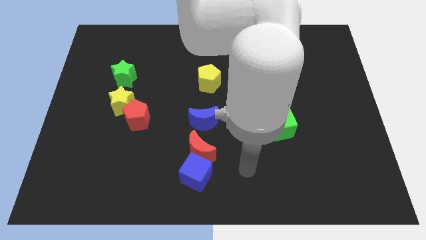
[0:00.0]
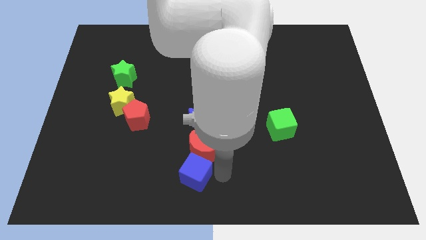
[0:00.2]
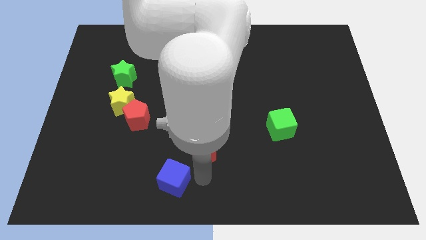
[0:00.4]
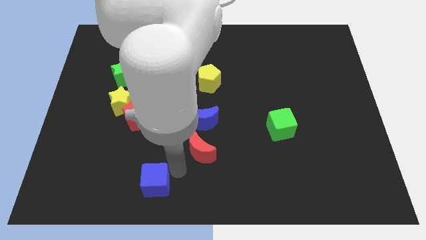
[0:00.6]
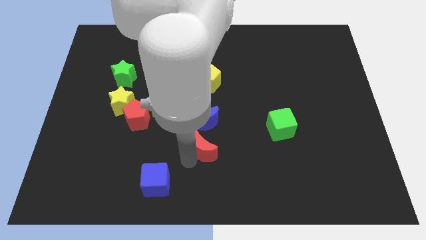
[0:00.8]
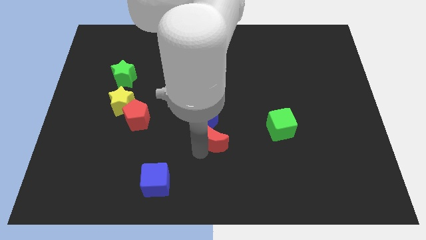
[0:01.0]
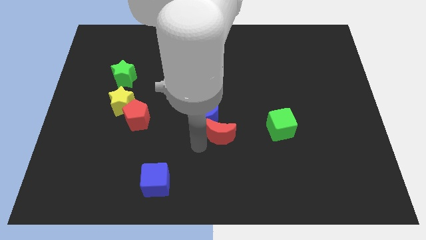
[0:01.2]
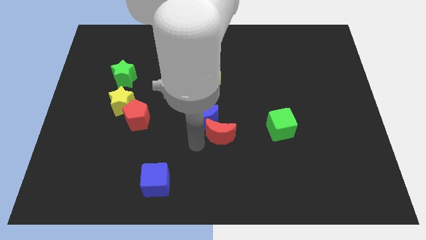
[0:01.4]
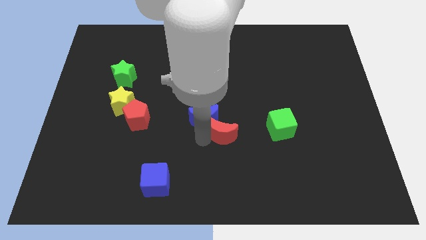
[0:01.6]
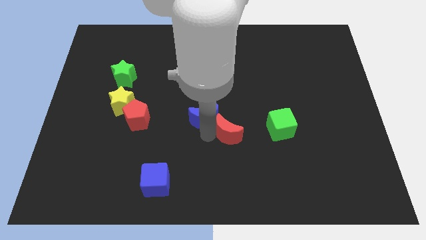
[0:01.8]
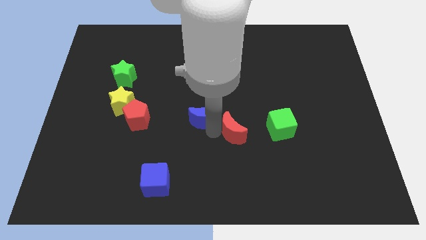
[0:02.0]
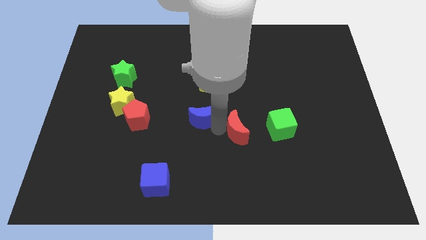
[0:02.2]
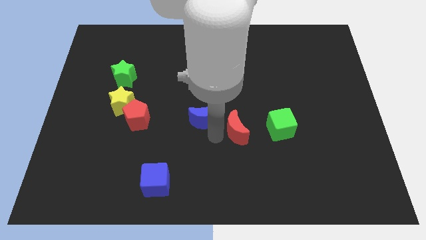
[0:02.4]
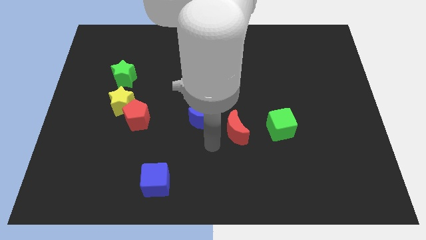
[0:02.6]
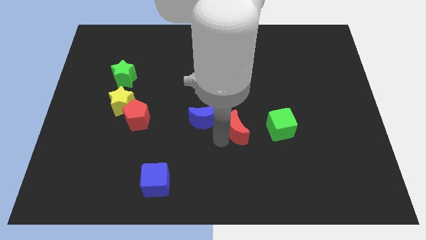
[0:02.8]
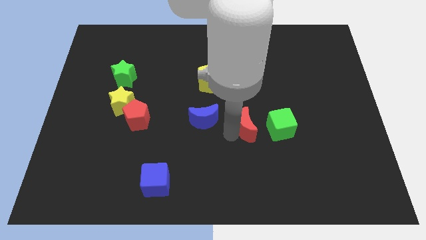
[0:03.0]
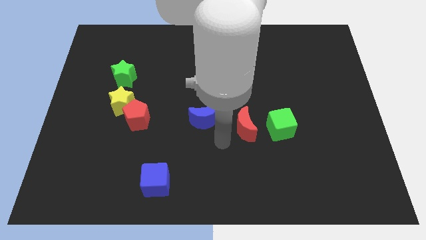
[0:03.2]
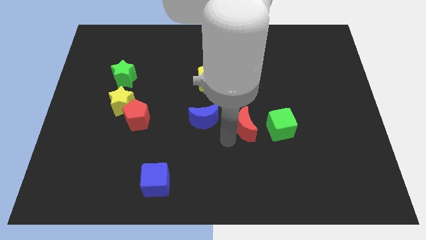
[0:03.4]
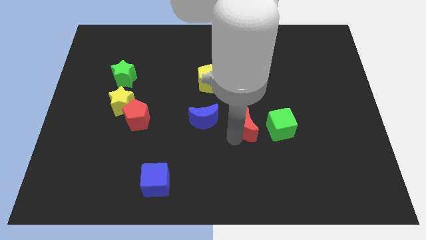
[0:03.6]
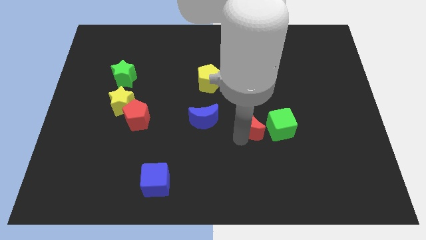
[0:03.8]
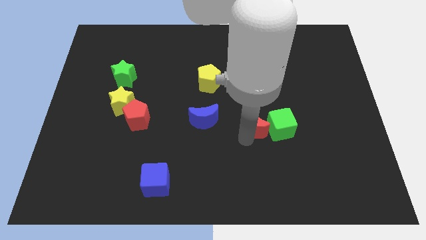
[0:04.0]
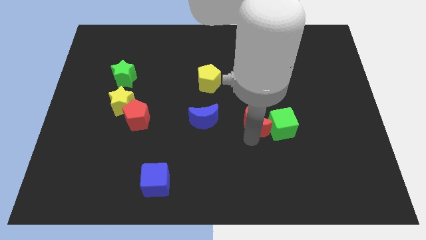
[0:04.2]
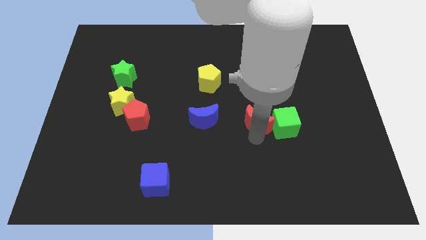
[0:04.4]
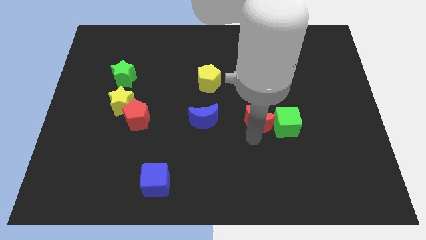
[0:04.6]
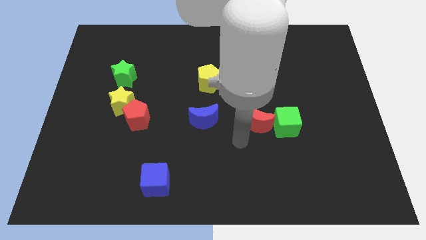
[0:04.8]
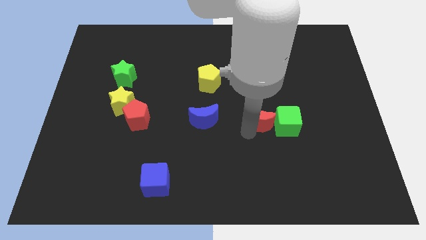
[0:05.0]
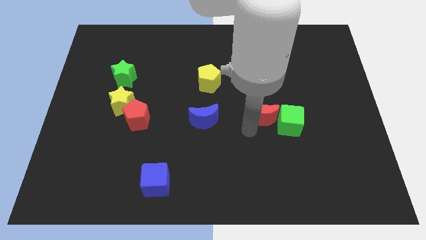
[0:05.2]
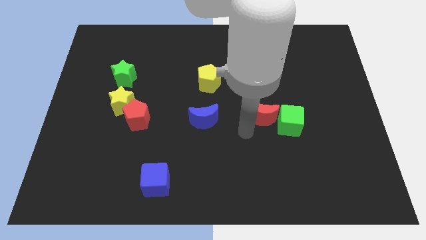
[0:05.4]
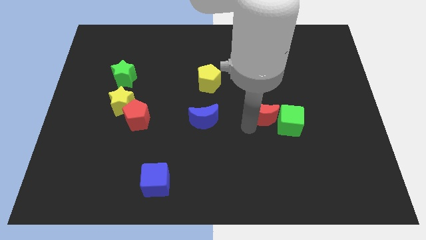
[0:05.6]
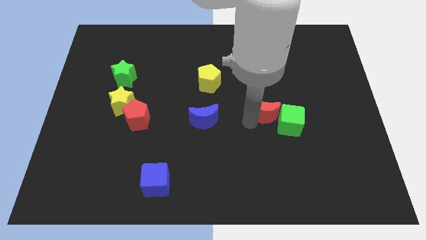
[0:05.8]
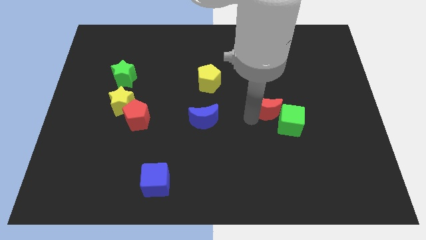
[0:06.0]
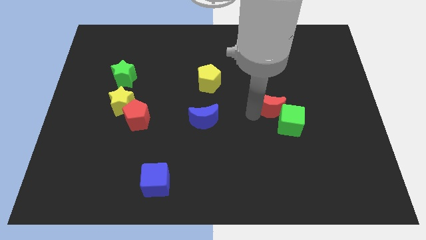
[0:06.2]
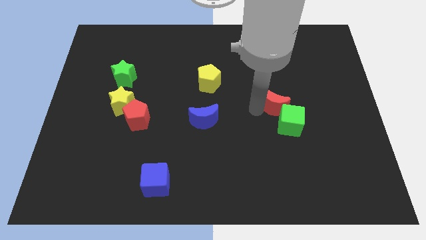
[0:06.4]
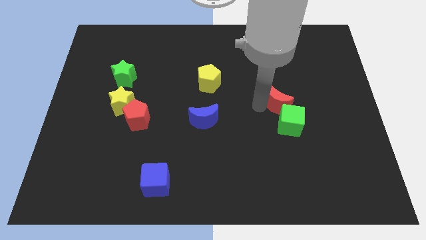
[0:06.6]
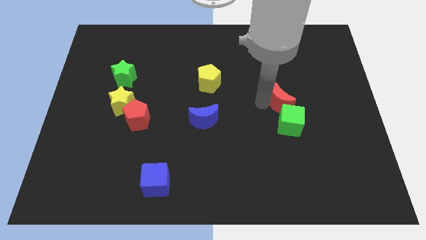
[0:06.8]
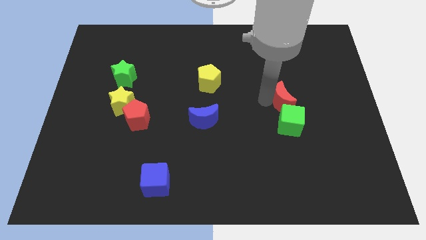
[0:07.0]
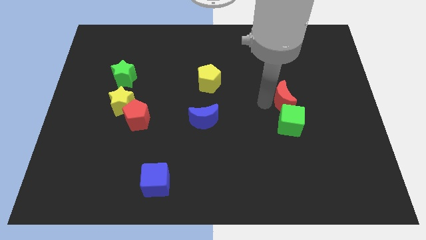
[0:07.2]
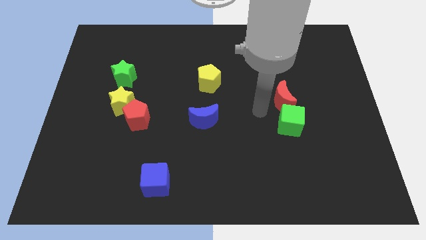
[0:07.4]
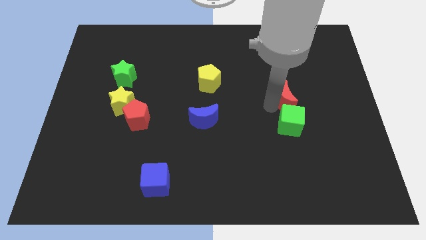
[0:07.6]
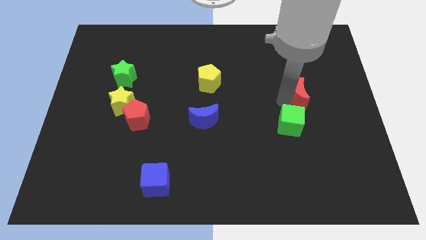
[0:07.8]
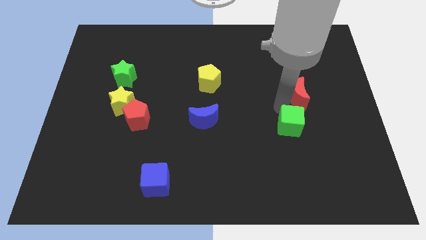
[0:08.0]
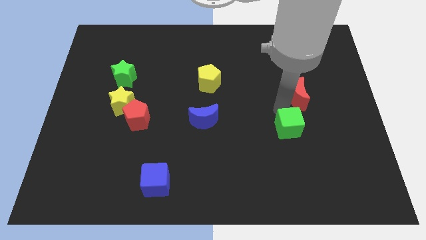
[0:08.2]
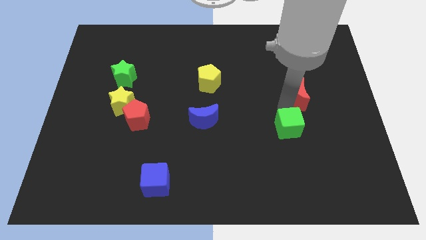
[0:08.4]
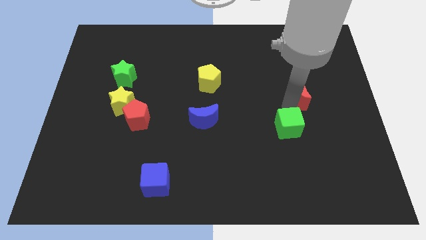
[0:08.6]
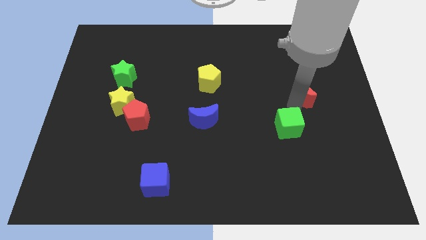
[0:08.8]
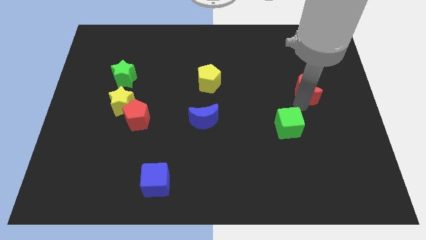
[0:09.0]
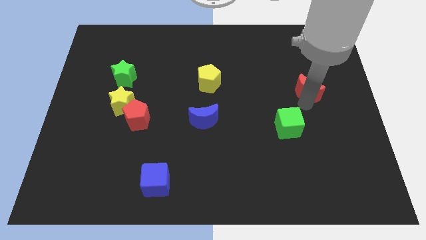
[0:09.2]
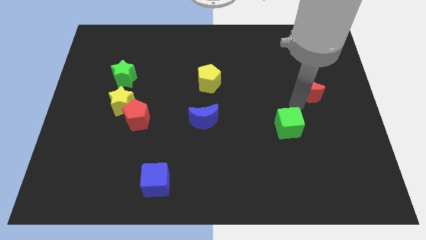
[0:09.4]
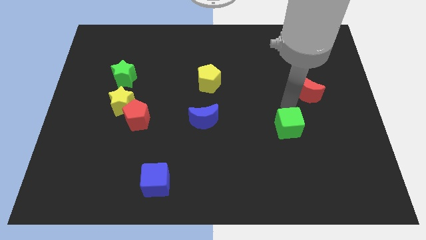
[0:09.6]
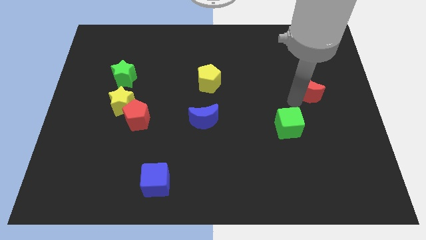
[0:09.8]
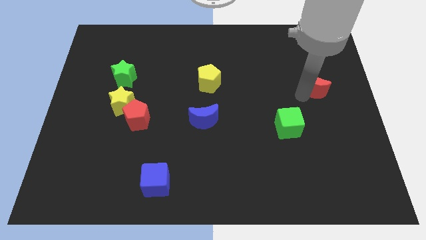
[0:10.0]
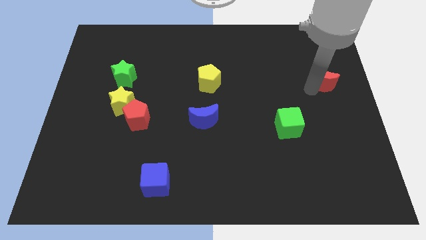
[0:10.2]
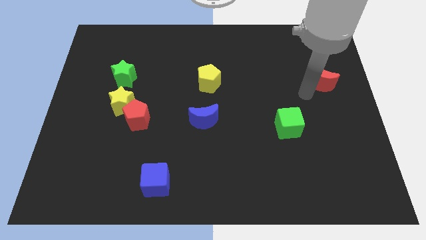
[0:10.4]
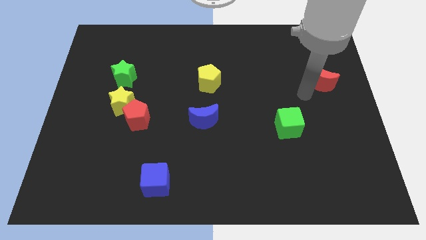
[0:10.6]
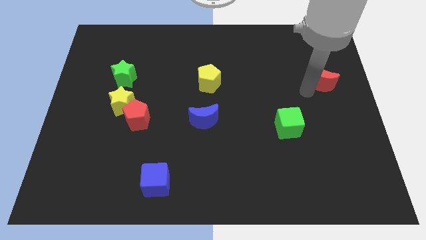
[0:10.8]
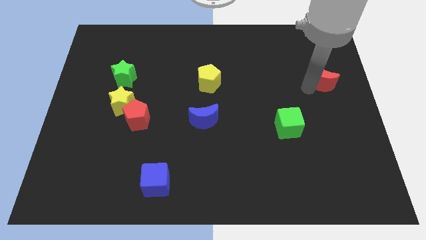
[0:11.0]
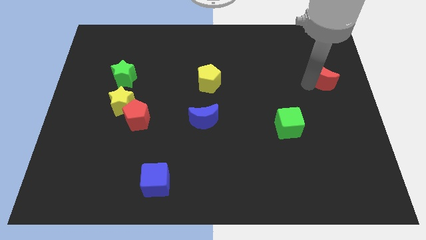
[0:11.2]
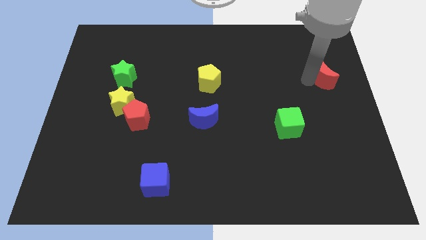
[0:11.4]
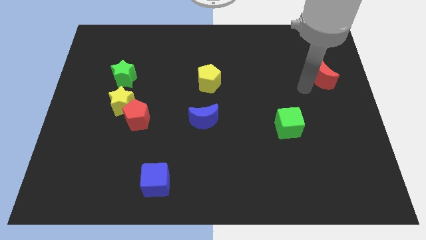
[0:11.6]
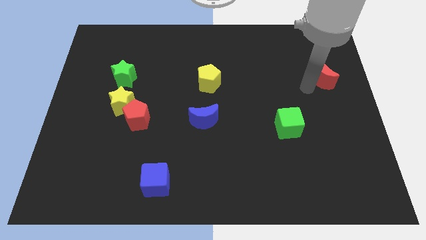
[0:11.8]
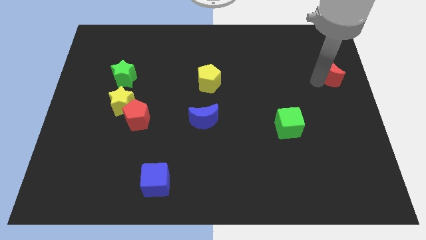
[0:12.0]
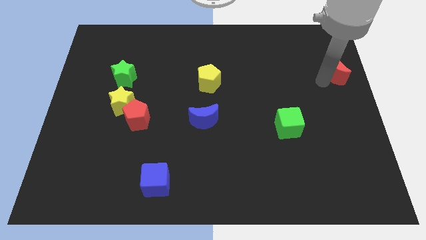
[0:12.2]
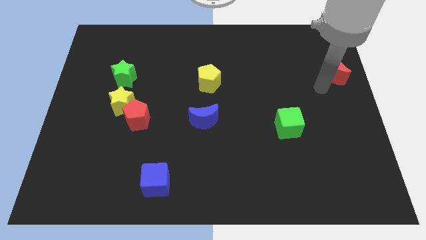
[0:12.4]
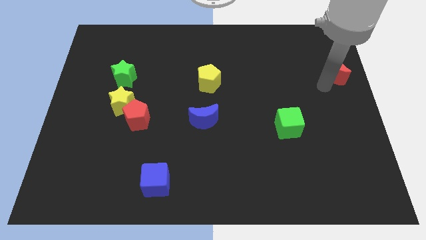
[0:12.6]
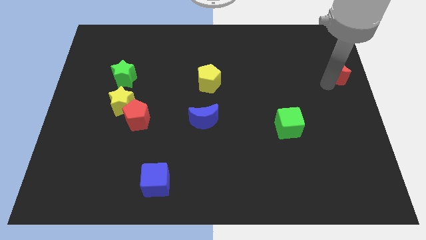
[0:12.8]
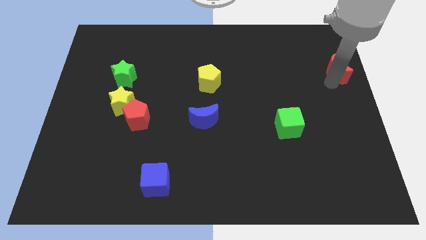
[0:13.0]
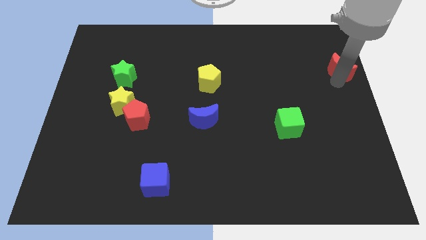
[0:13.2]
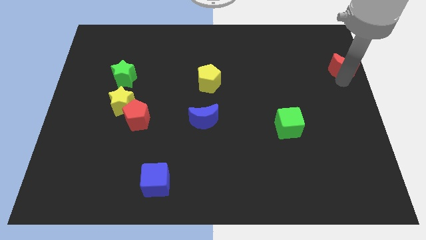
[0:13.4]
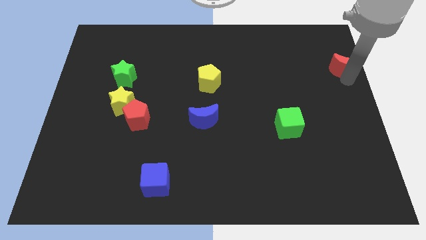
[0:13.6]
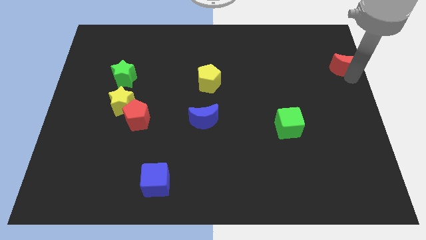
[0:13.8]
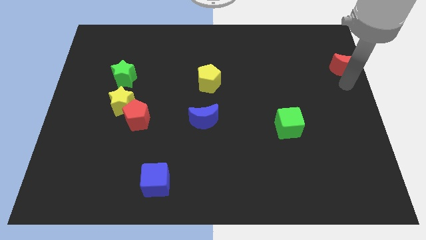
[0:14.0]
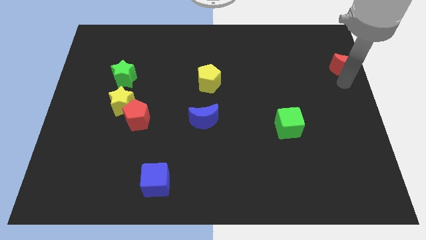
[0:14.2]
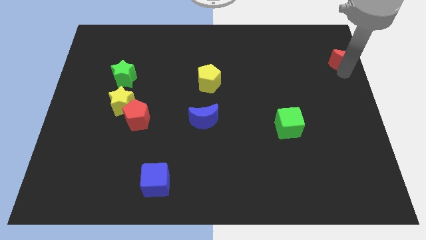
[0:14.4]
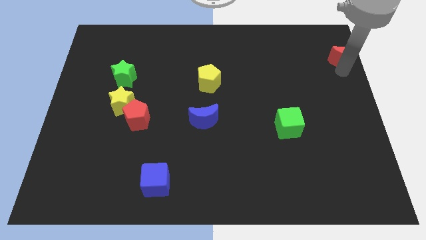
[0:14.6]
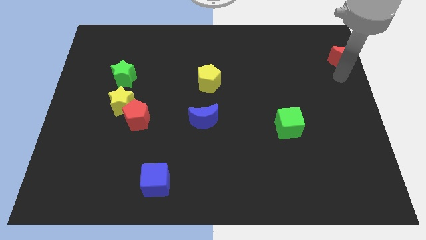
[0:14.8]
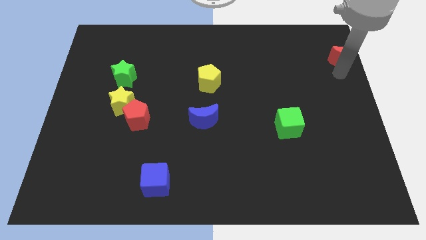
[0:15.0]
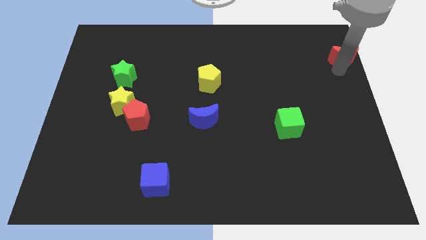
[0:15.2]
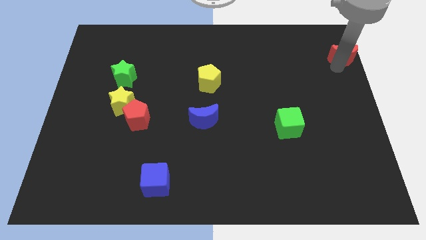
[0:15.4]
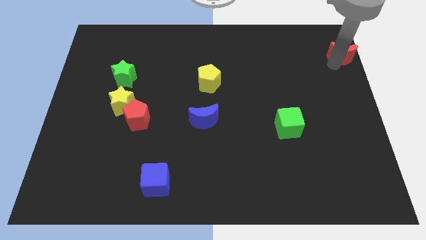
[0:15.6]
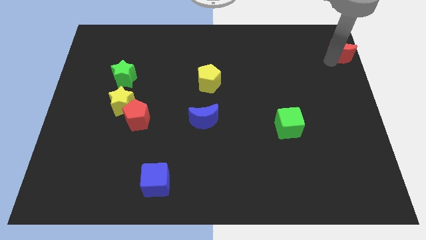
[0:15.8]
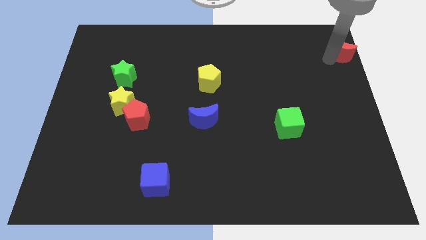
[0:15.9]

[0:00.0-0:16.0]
push the red moon to the upper right corner
